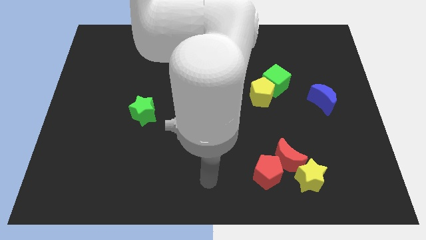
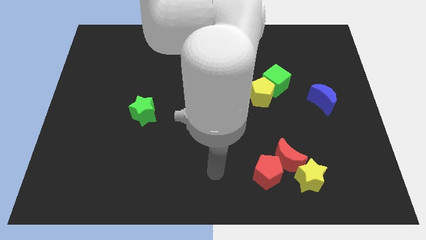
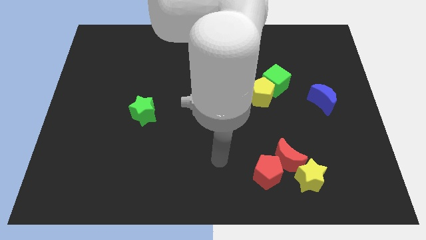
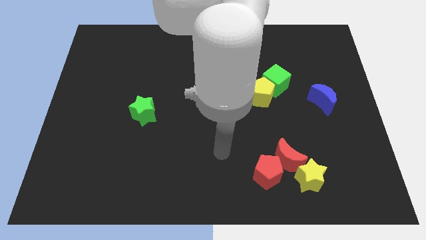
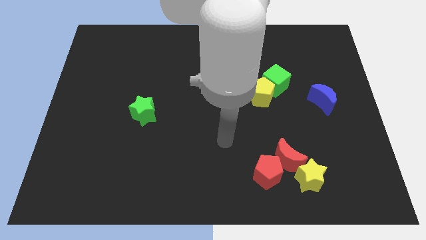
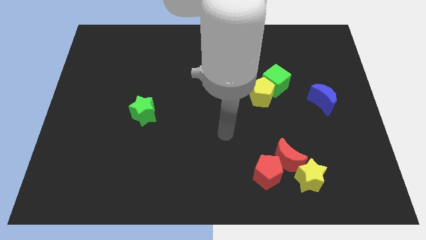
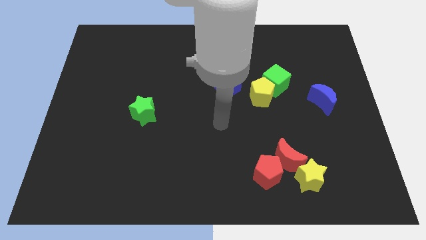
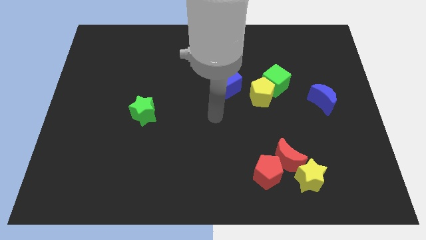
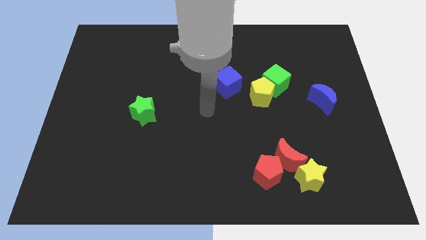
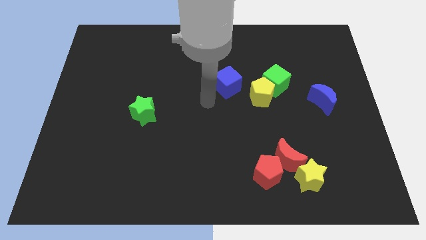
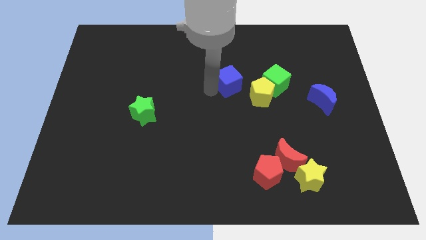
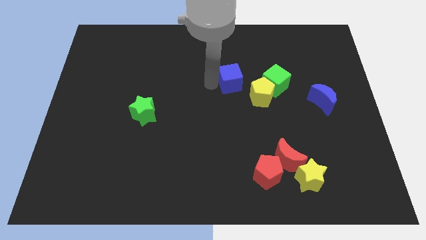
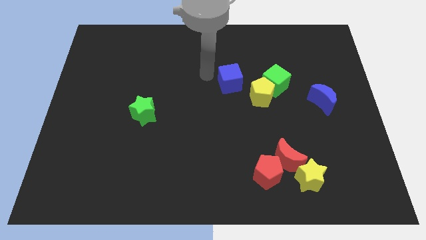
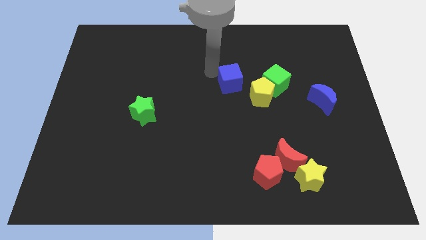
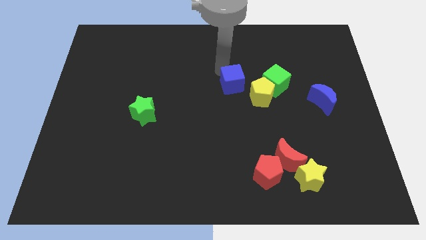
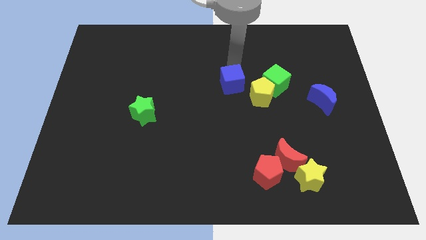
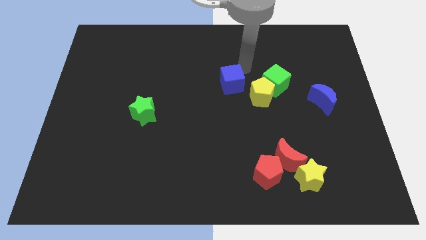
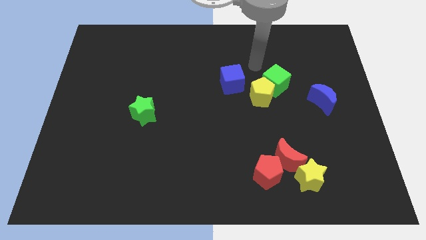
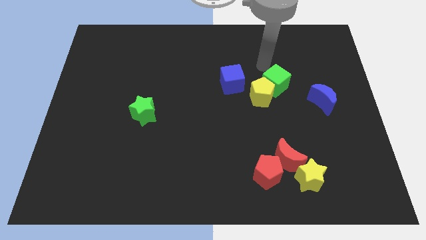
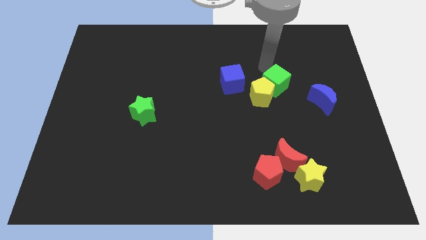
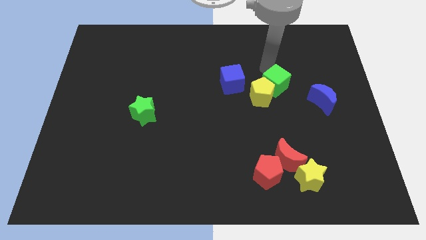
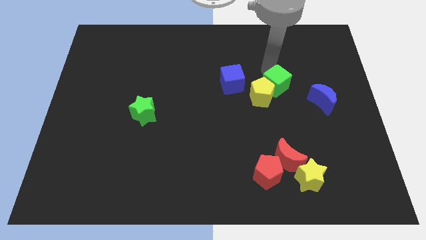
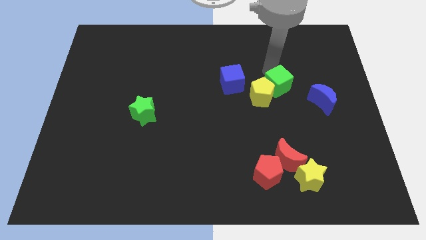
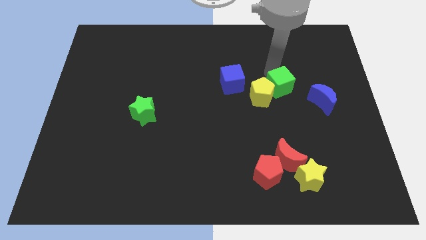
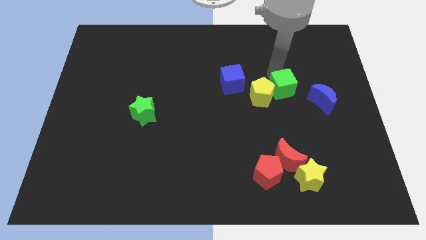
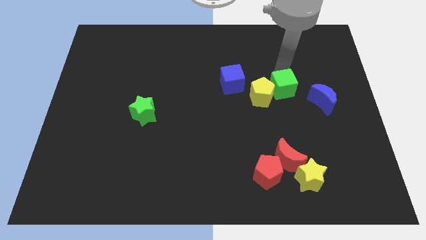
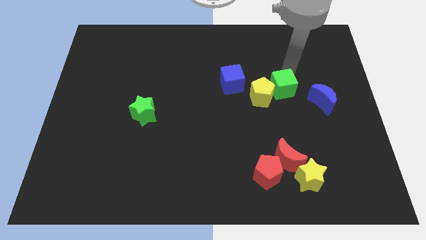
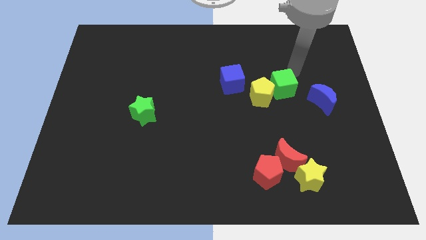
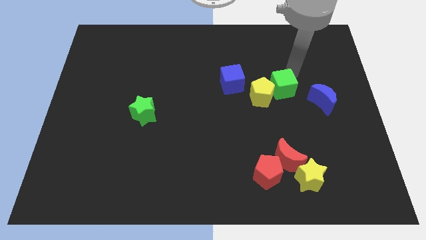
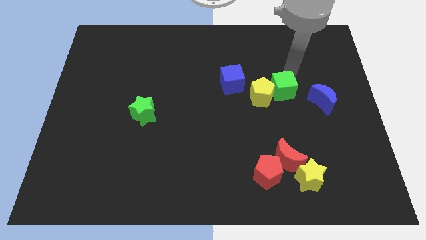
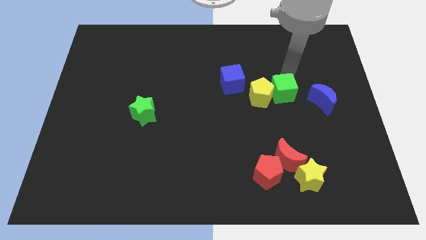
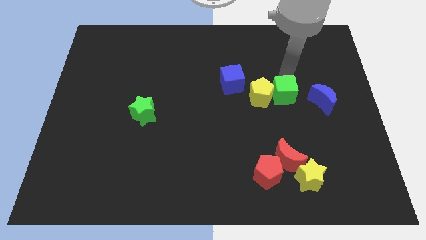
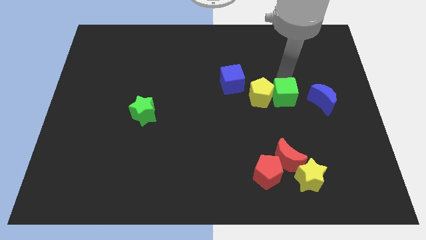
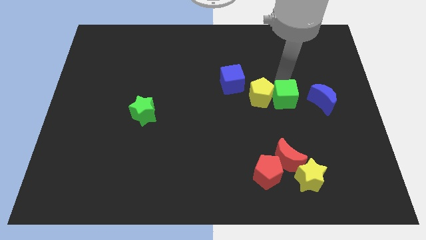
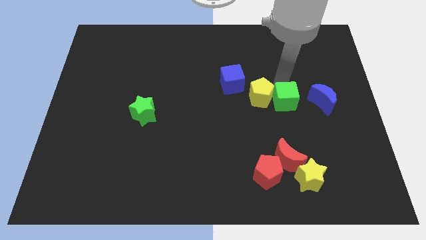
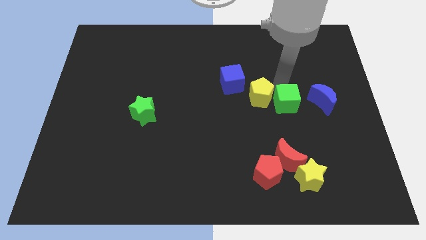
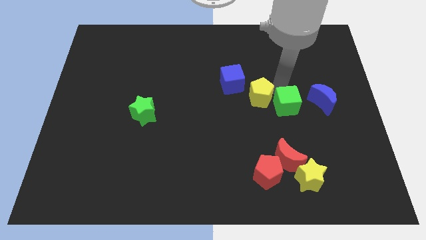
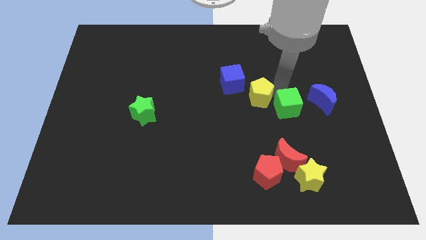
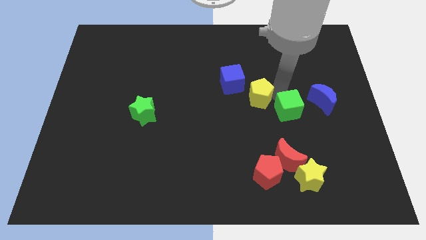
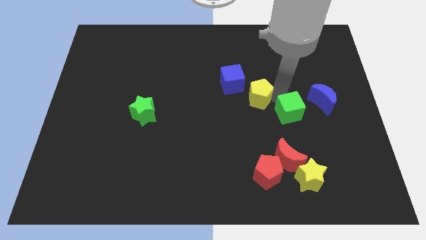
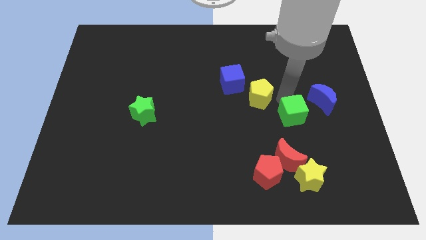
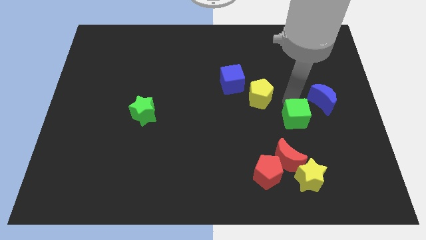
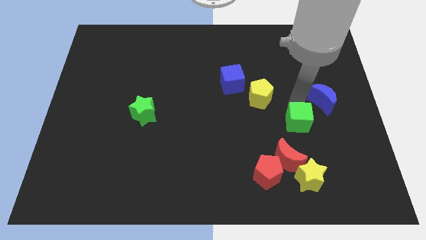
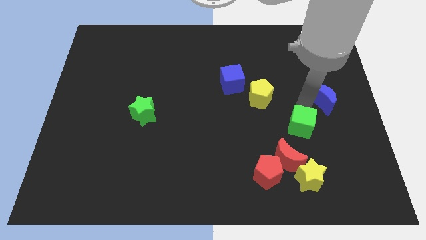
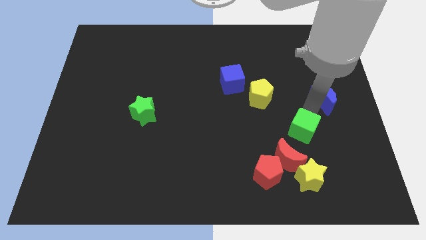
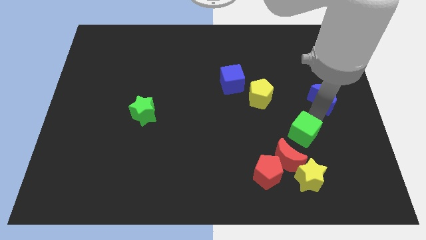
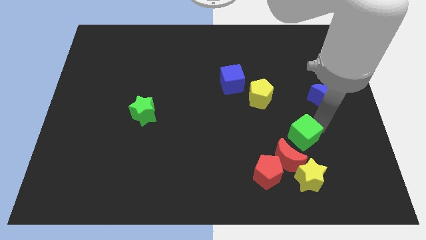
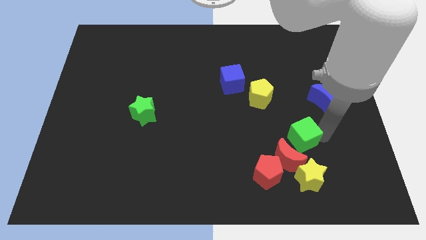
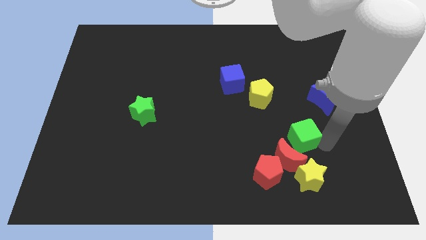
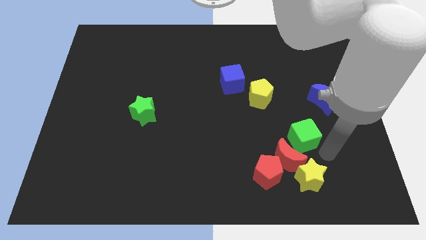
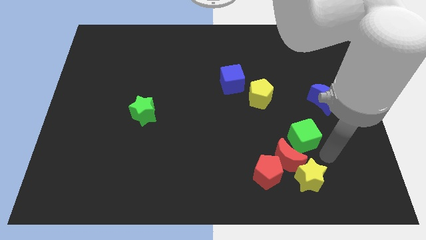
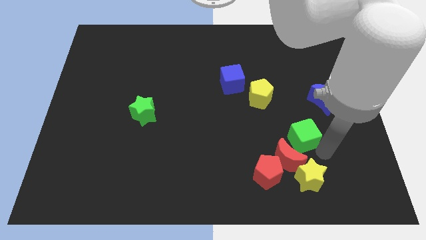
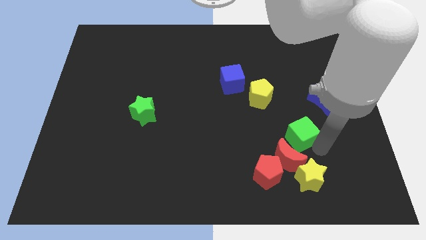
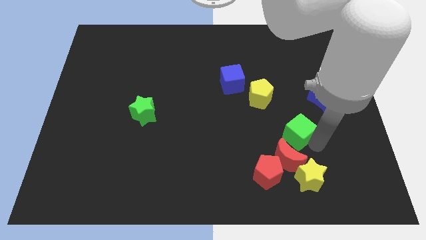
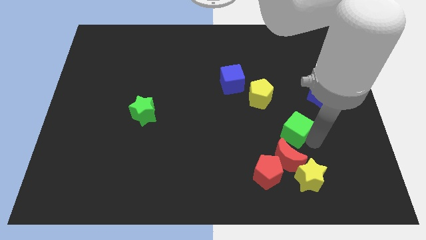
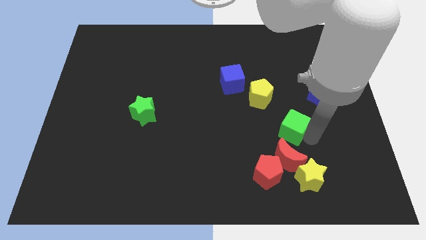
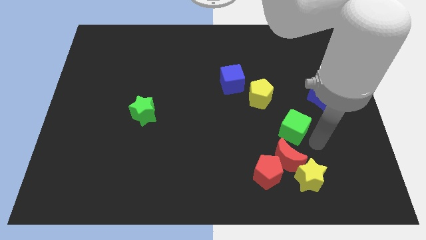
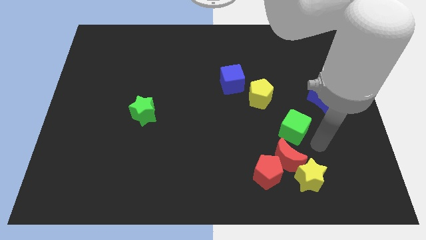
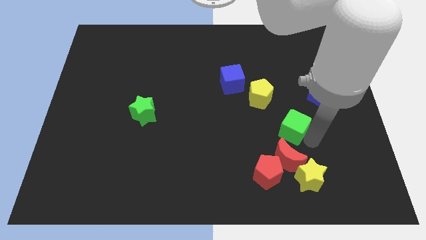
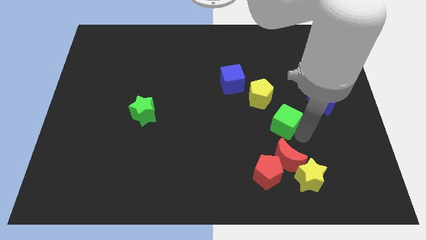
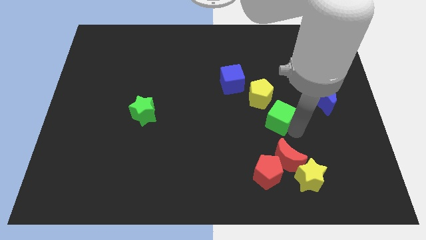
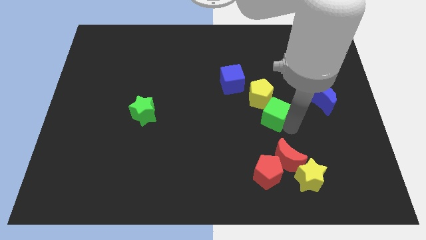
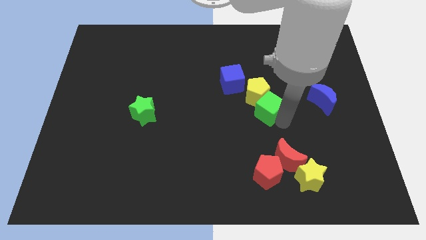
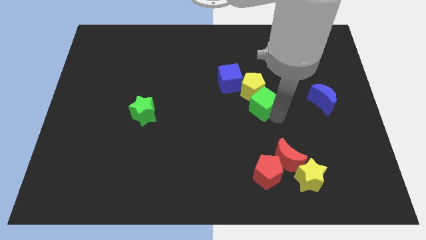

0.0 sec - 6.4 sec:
slide the green cube to the center
